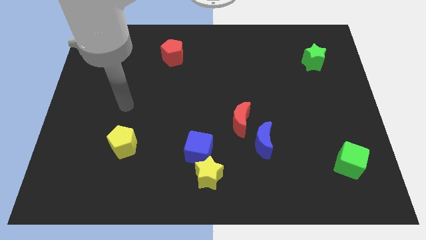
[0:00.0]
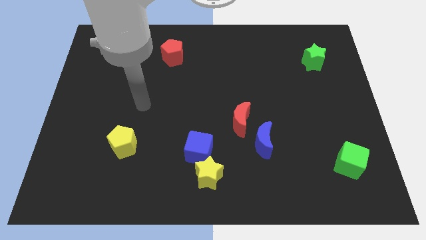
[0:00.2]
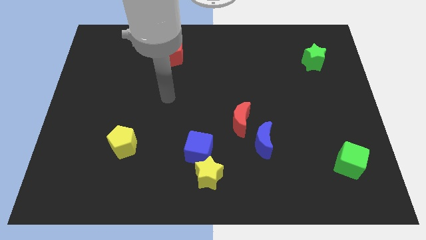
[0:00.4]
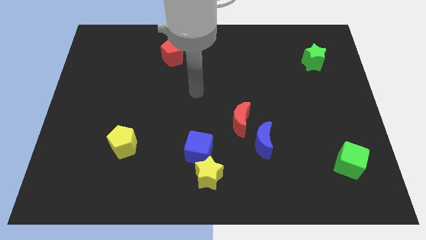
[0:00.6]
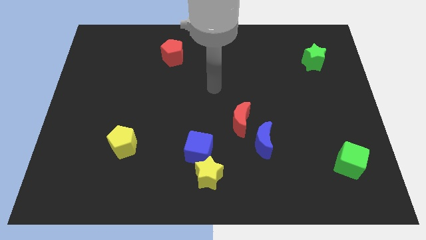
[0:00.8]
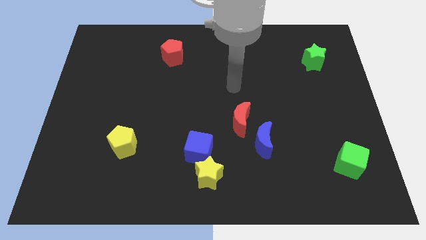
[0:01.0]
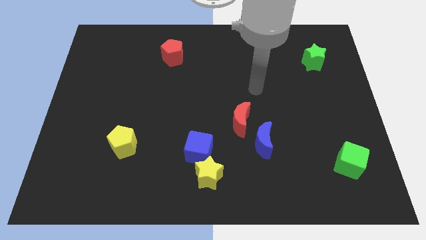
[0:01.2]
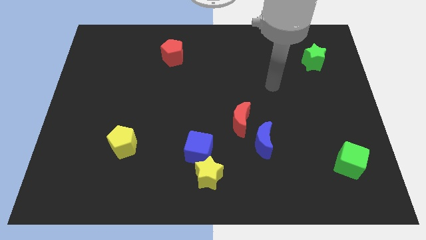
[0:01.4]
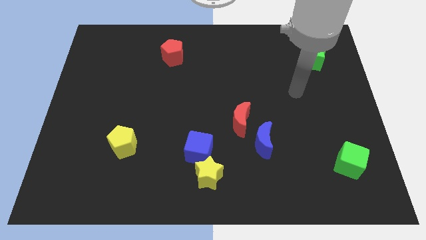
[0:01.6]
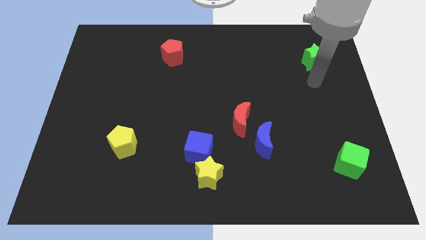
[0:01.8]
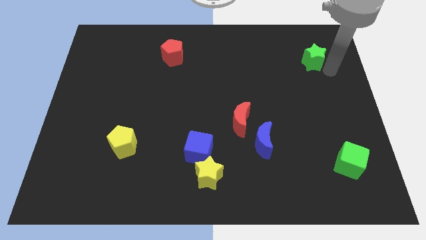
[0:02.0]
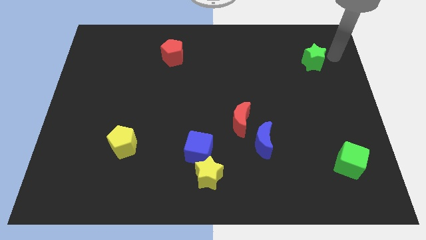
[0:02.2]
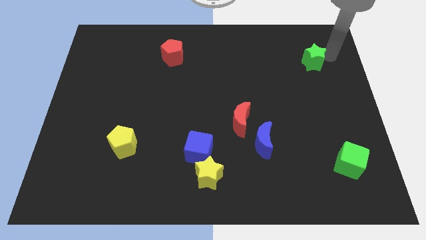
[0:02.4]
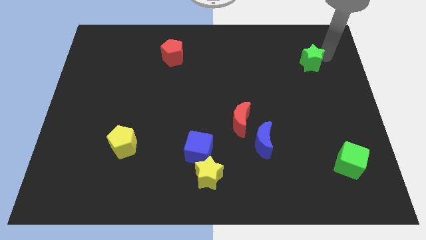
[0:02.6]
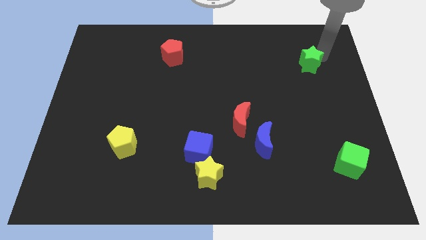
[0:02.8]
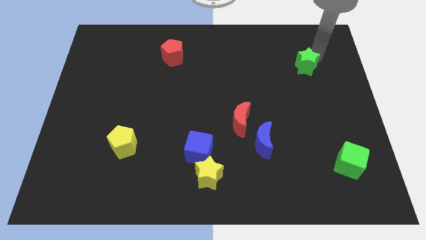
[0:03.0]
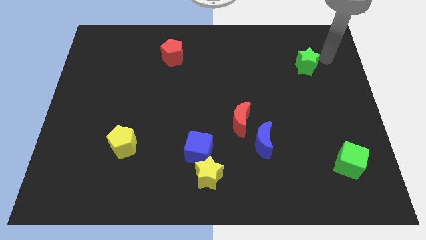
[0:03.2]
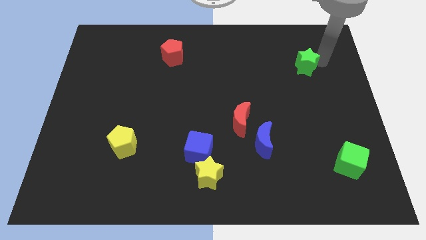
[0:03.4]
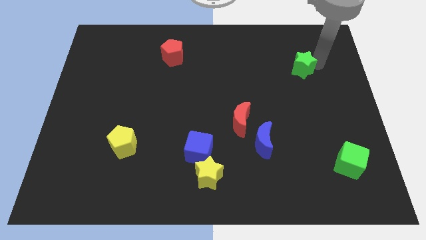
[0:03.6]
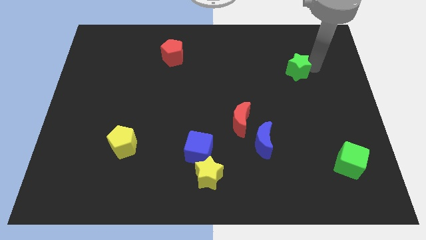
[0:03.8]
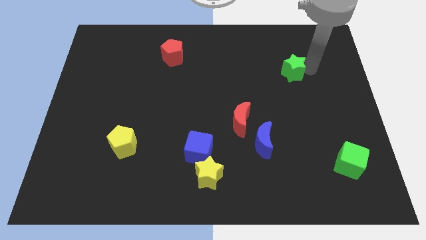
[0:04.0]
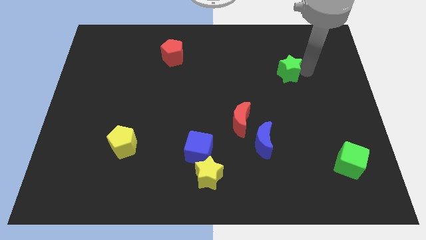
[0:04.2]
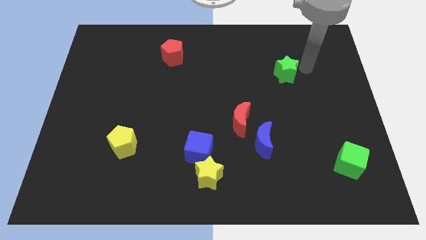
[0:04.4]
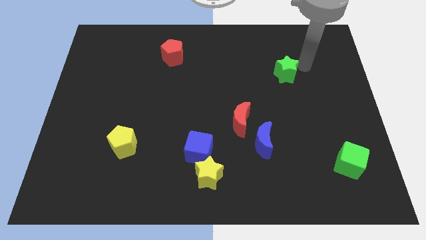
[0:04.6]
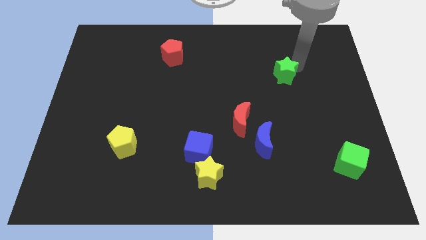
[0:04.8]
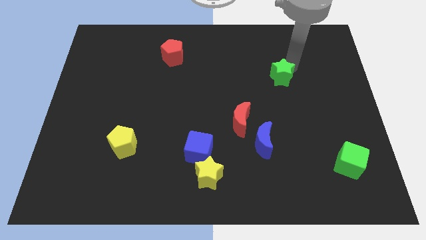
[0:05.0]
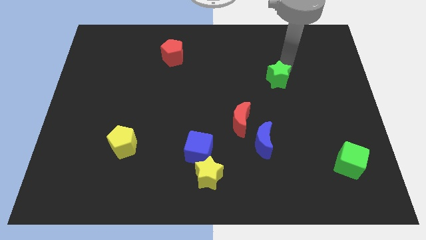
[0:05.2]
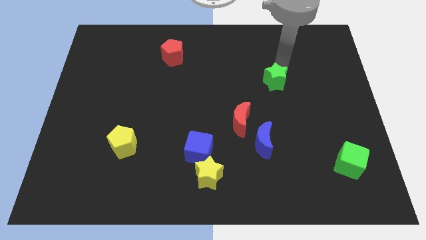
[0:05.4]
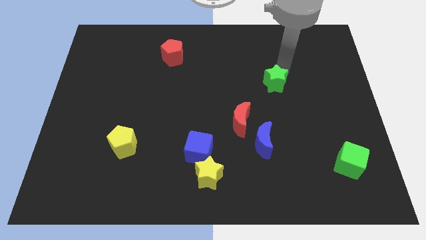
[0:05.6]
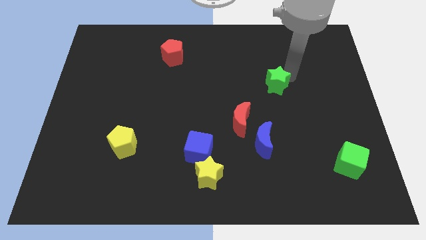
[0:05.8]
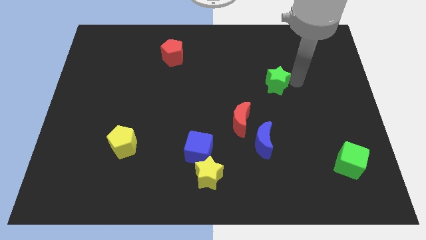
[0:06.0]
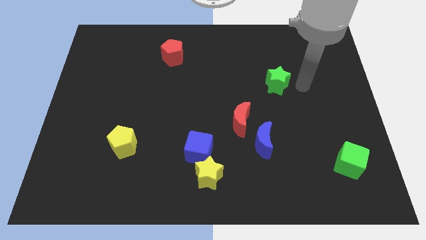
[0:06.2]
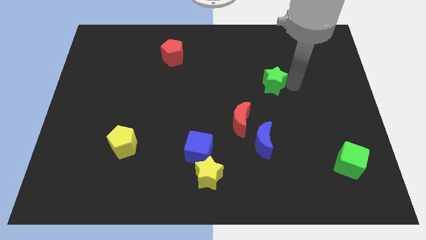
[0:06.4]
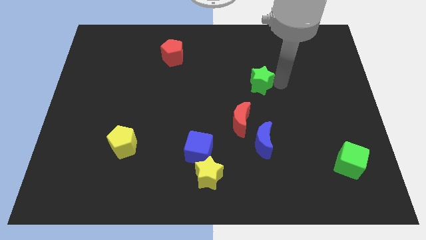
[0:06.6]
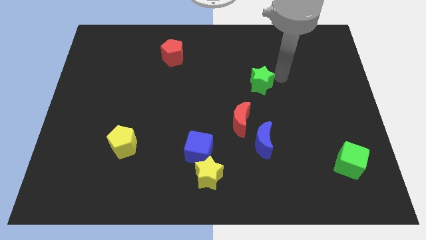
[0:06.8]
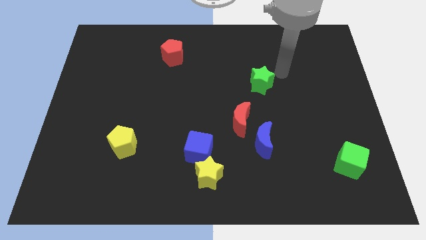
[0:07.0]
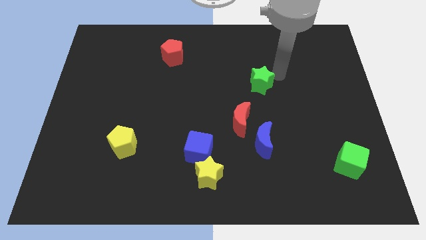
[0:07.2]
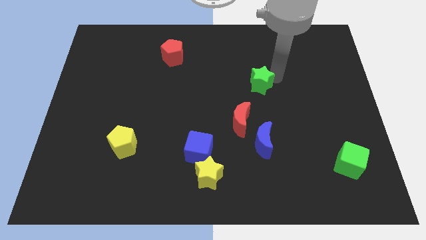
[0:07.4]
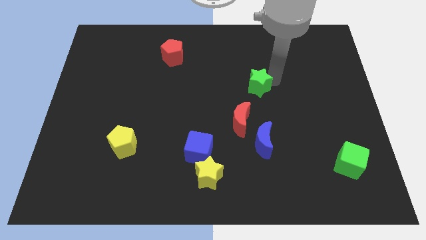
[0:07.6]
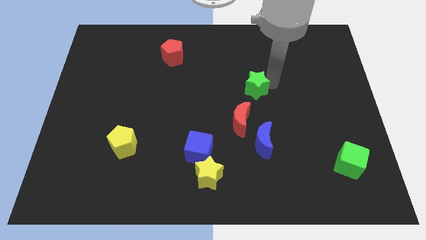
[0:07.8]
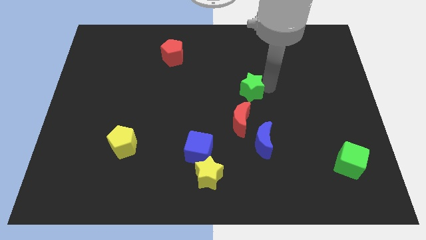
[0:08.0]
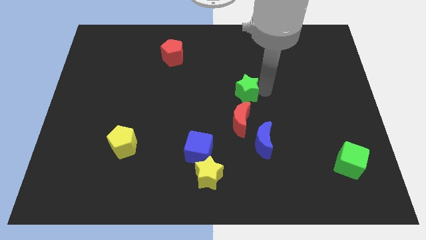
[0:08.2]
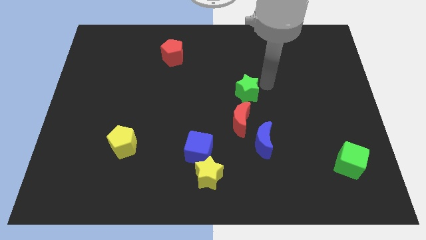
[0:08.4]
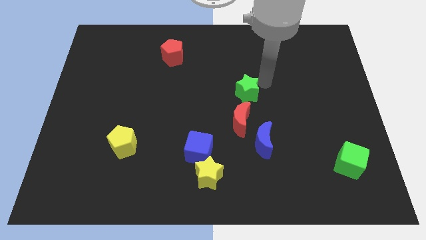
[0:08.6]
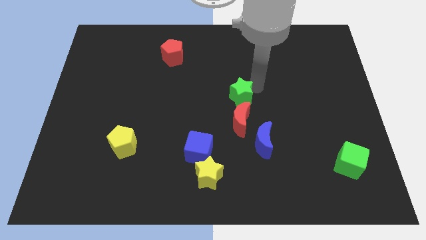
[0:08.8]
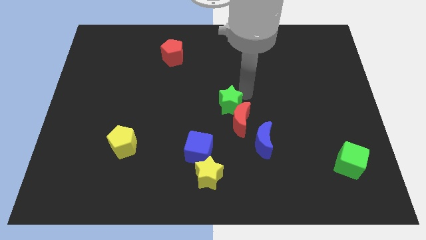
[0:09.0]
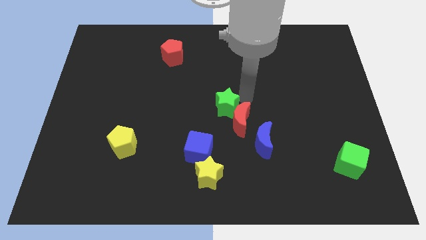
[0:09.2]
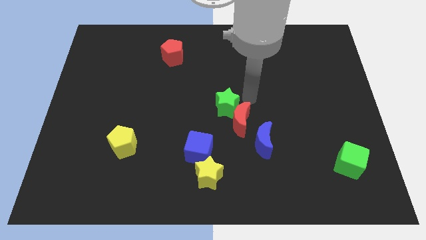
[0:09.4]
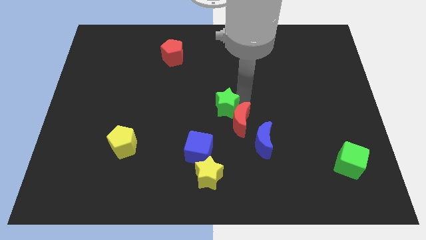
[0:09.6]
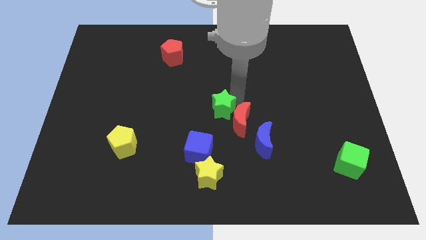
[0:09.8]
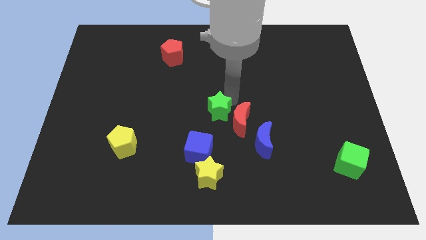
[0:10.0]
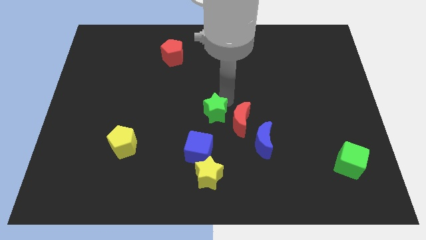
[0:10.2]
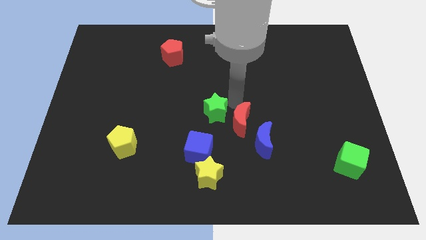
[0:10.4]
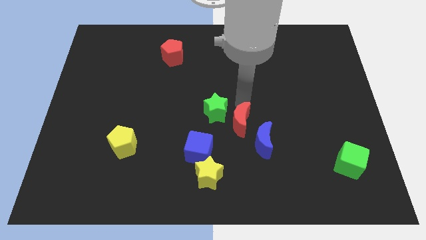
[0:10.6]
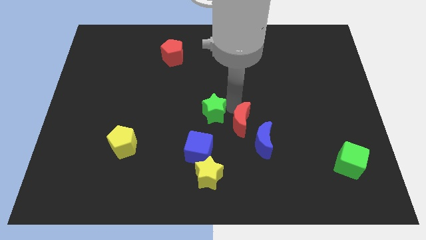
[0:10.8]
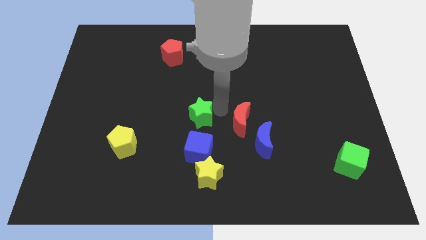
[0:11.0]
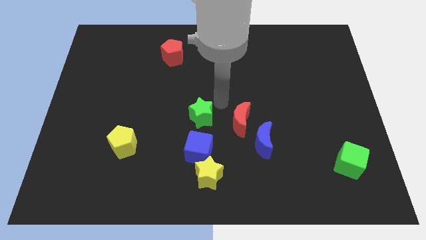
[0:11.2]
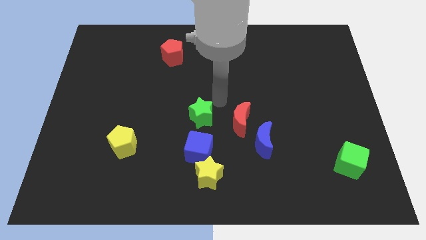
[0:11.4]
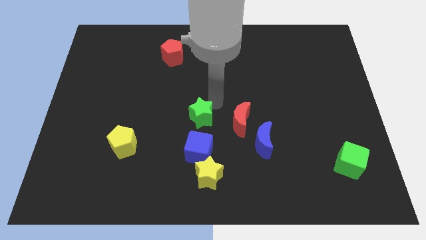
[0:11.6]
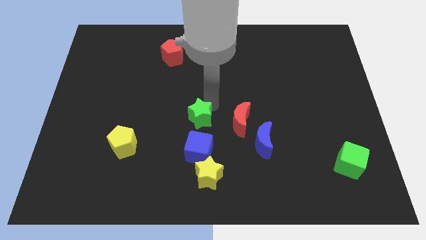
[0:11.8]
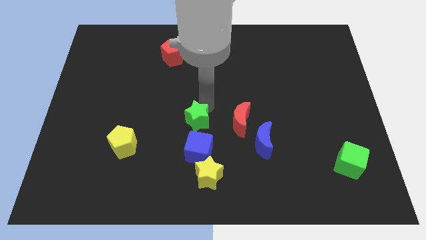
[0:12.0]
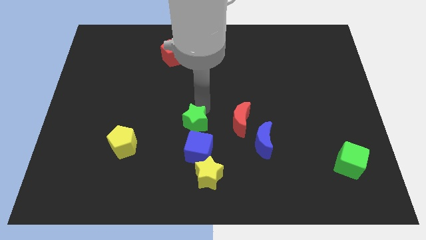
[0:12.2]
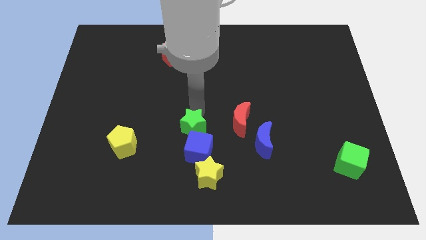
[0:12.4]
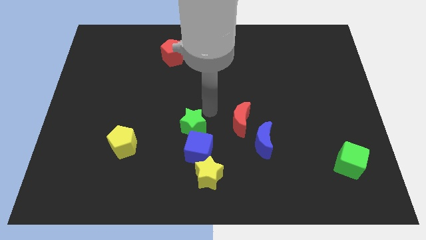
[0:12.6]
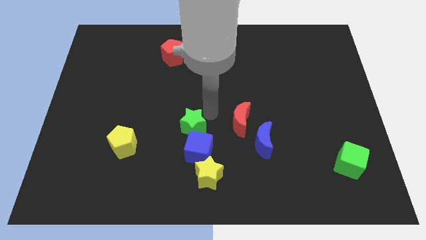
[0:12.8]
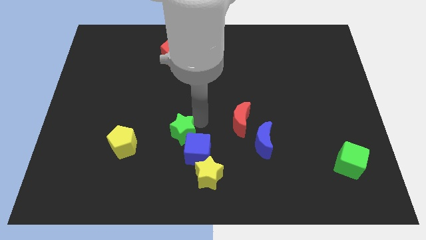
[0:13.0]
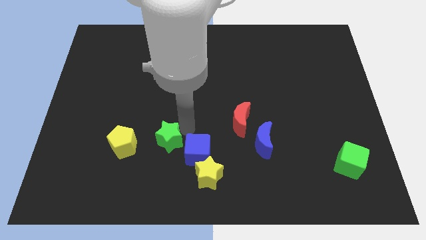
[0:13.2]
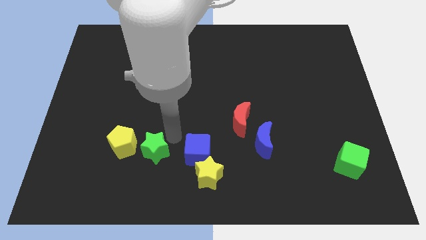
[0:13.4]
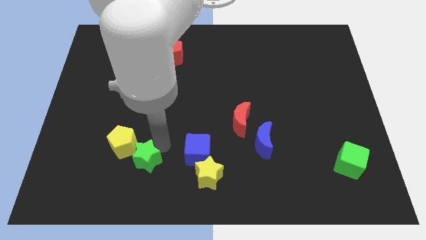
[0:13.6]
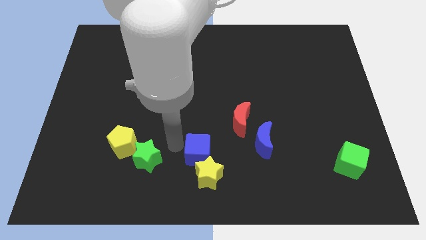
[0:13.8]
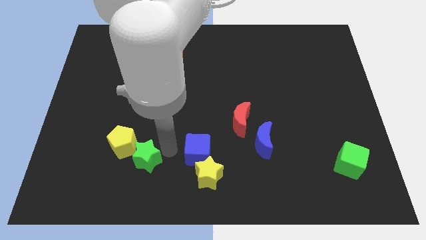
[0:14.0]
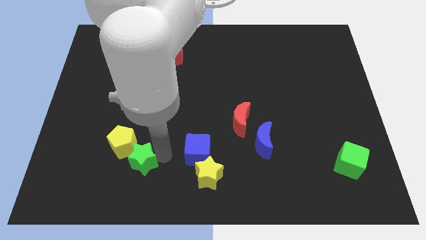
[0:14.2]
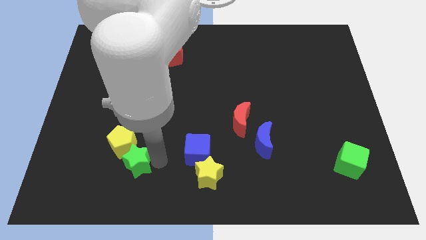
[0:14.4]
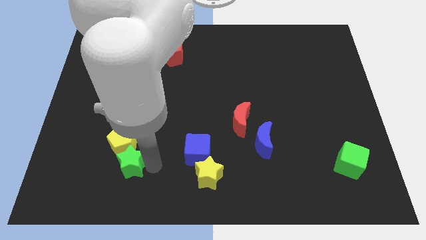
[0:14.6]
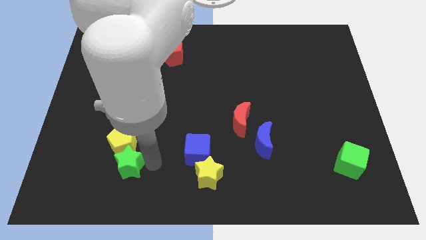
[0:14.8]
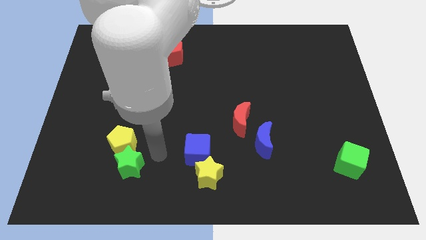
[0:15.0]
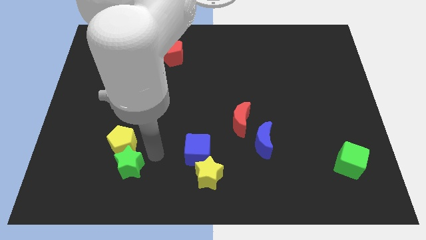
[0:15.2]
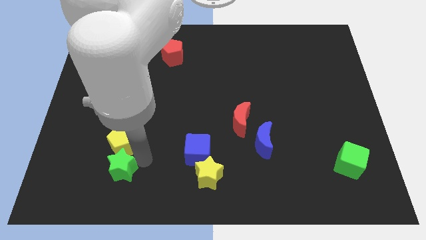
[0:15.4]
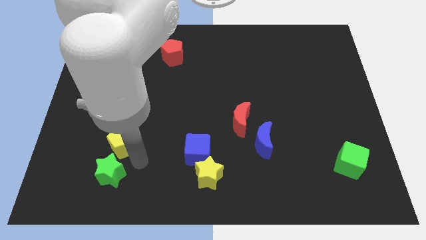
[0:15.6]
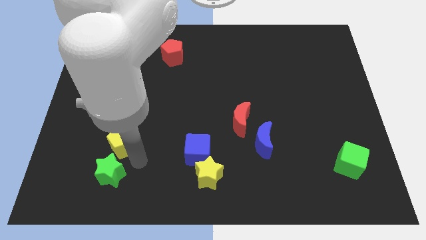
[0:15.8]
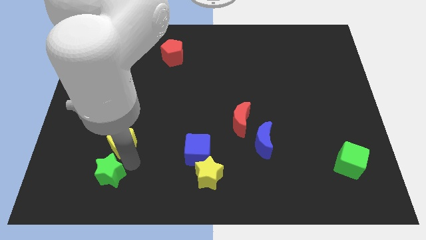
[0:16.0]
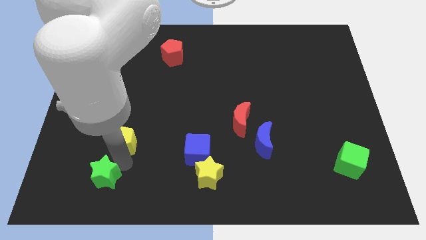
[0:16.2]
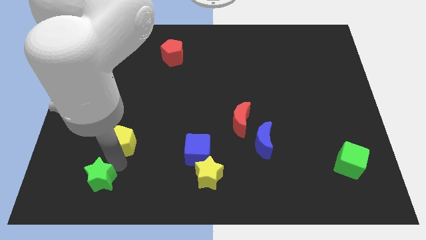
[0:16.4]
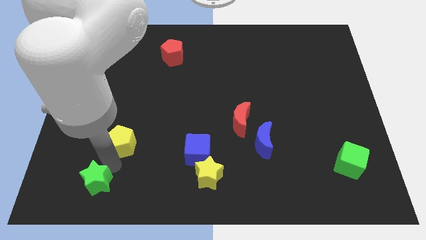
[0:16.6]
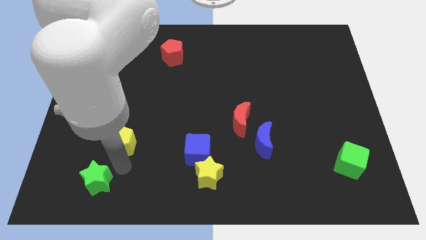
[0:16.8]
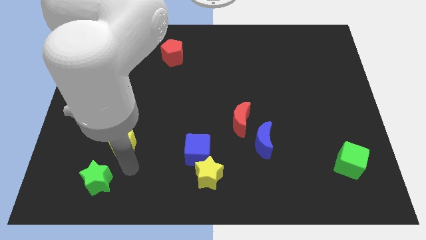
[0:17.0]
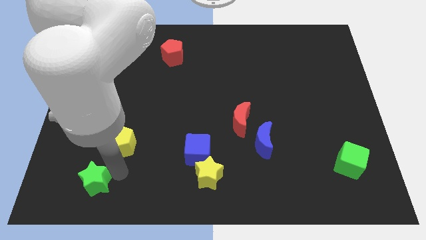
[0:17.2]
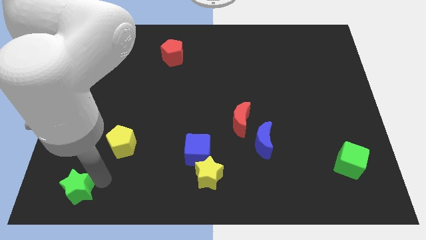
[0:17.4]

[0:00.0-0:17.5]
push the green star to the bottom left
